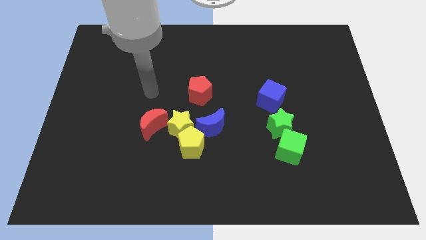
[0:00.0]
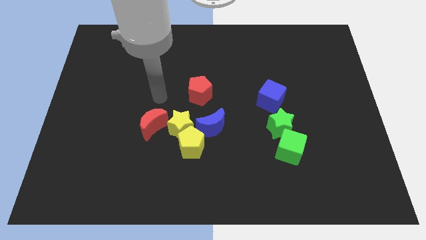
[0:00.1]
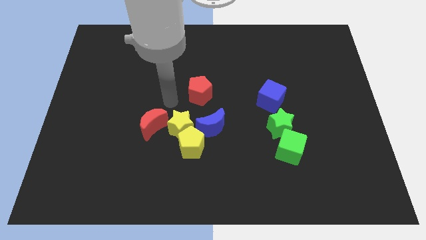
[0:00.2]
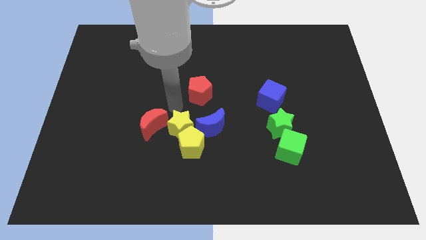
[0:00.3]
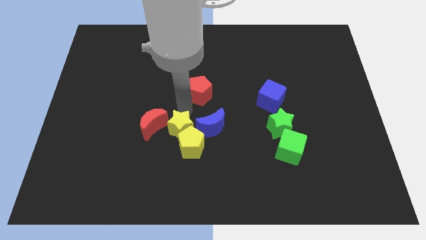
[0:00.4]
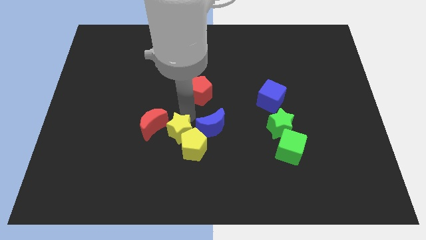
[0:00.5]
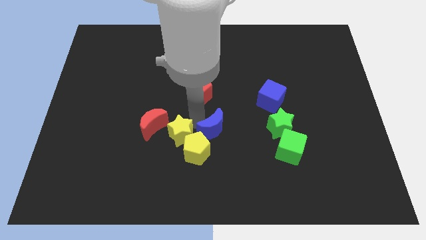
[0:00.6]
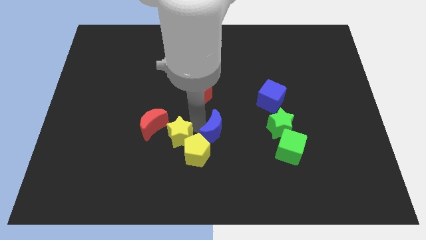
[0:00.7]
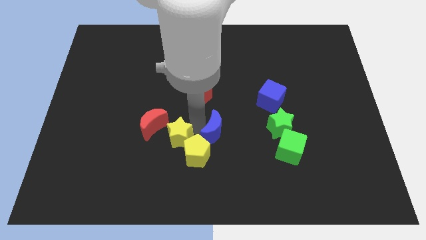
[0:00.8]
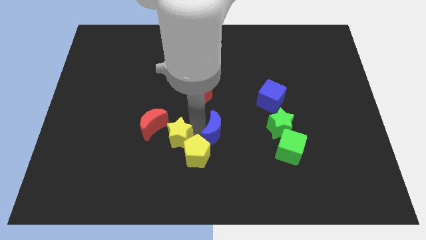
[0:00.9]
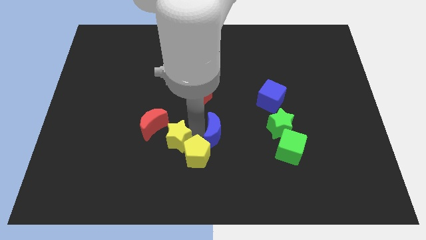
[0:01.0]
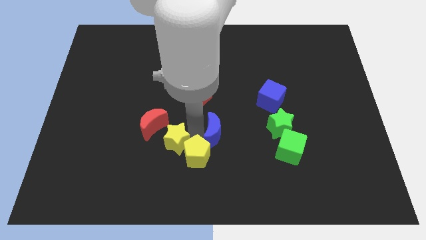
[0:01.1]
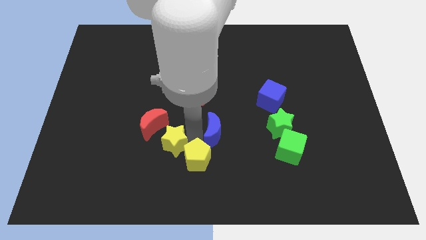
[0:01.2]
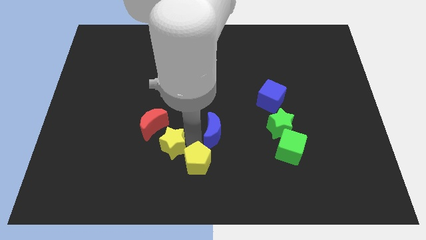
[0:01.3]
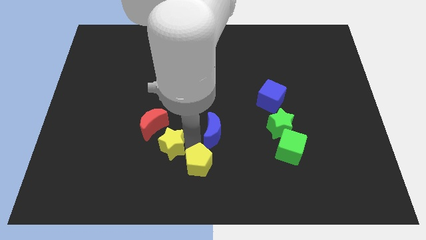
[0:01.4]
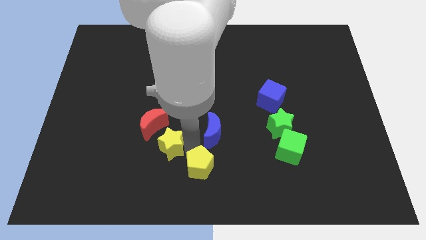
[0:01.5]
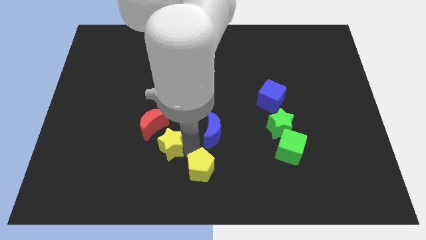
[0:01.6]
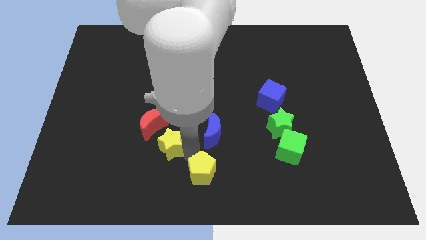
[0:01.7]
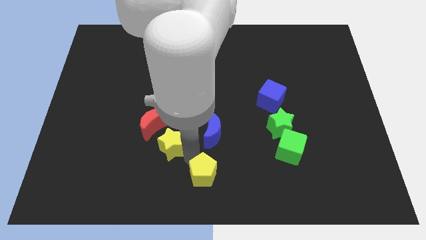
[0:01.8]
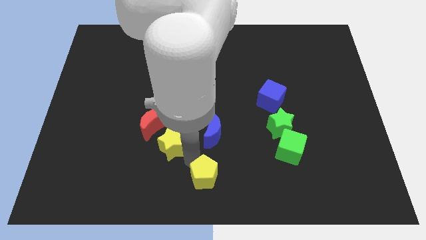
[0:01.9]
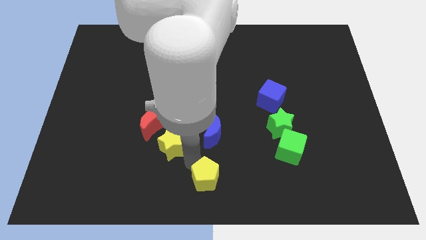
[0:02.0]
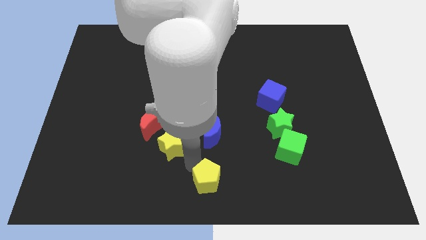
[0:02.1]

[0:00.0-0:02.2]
move the yellow pentagon away from the yellow star and blue moon

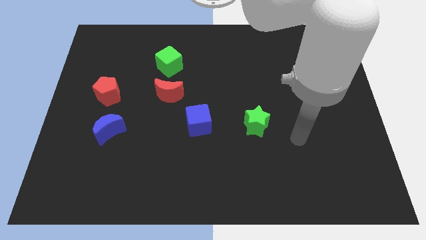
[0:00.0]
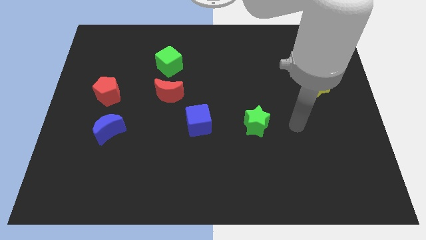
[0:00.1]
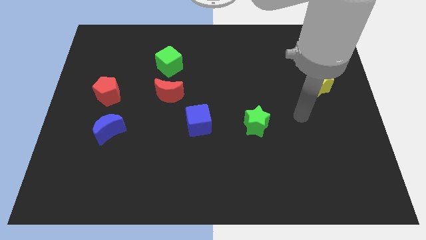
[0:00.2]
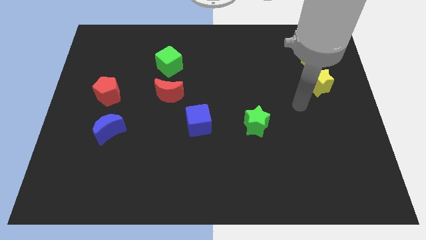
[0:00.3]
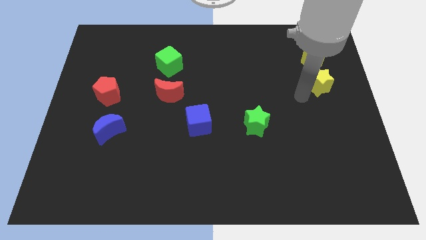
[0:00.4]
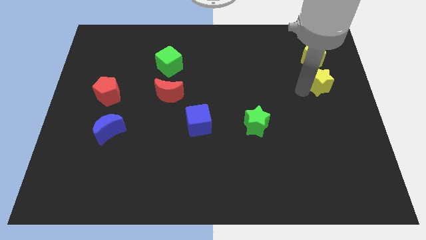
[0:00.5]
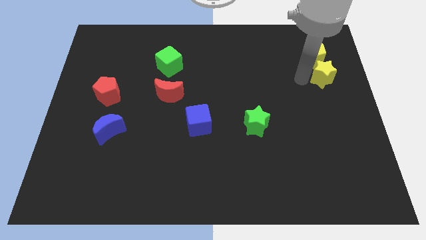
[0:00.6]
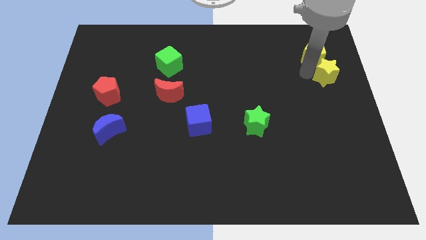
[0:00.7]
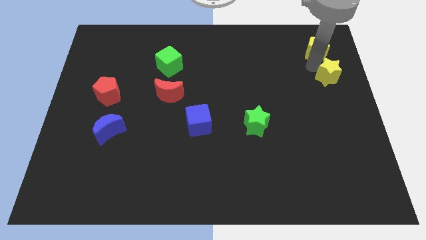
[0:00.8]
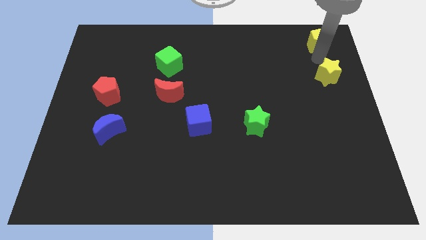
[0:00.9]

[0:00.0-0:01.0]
pull the yellow star apart from the yellow pentagon

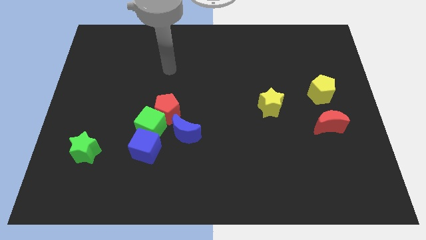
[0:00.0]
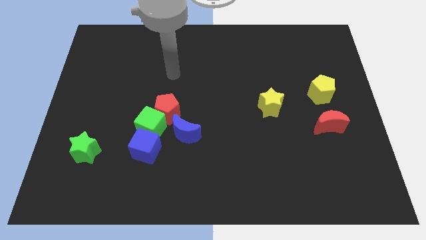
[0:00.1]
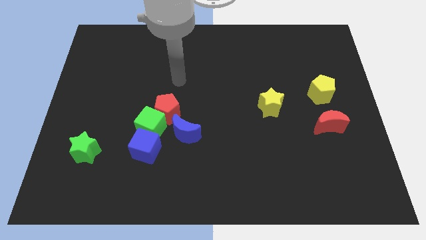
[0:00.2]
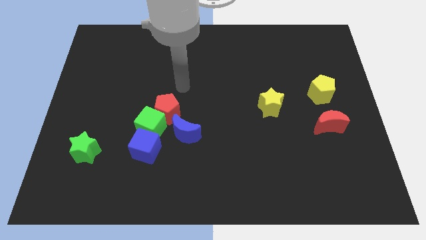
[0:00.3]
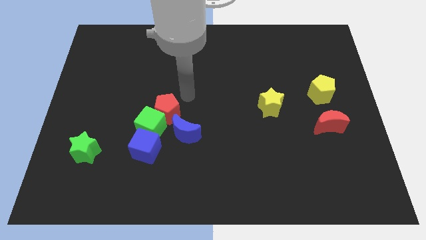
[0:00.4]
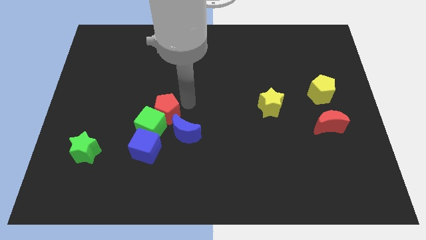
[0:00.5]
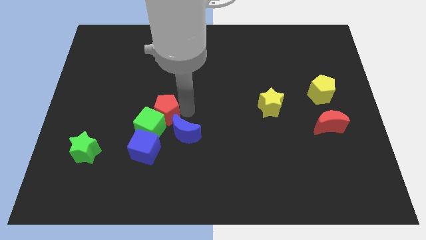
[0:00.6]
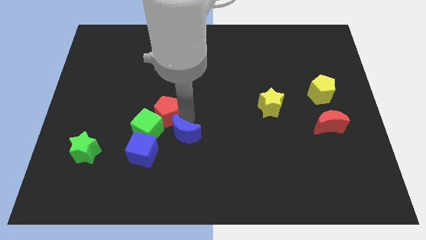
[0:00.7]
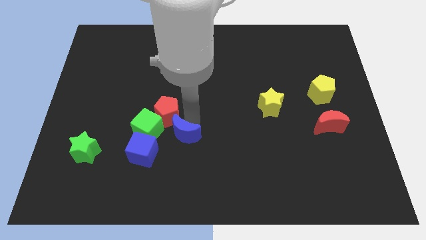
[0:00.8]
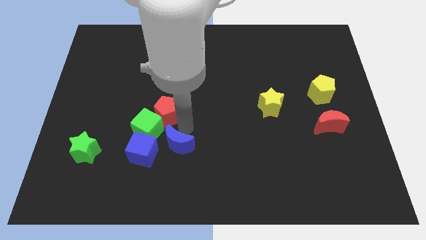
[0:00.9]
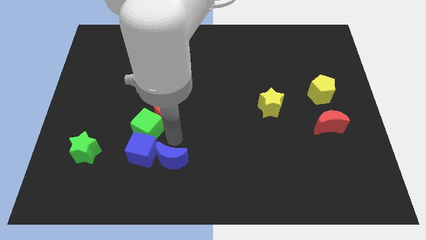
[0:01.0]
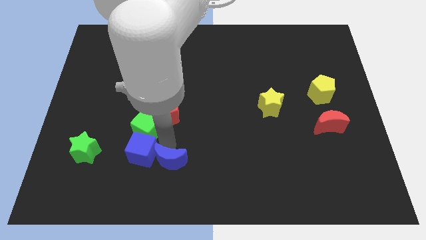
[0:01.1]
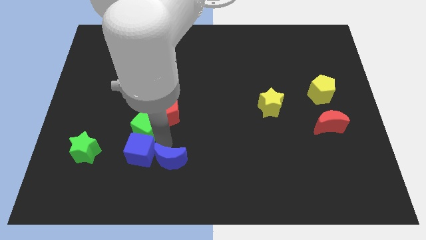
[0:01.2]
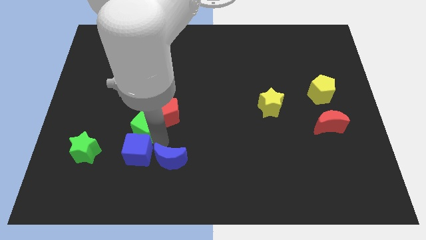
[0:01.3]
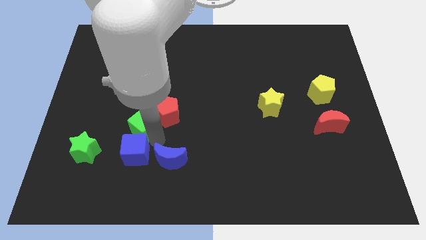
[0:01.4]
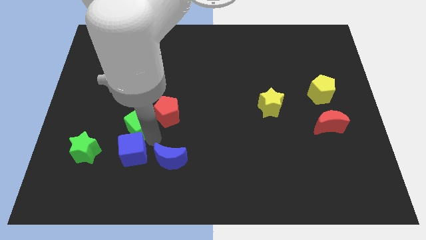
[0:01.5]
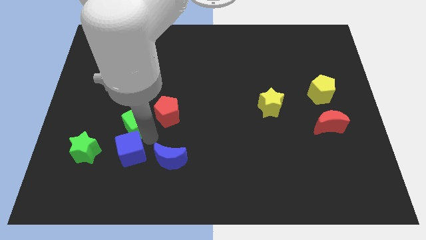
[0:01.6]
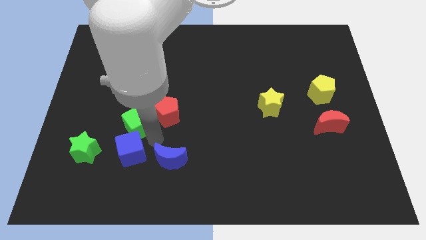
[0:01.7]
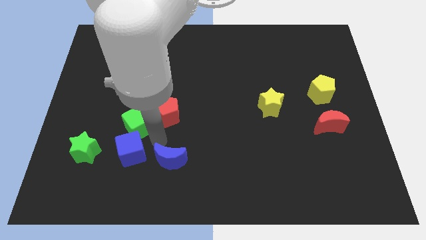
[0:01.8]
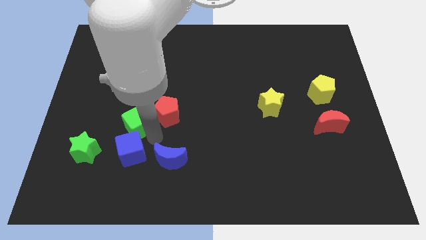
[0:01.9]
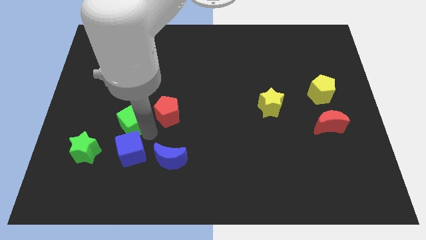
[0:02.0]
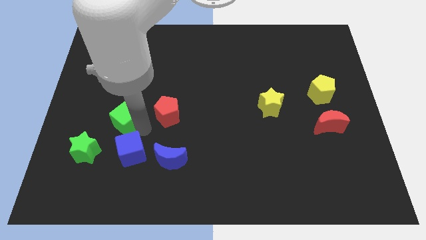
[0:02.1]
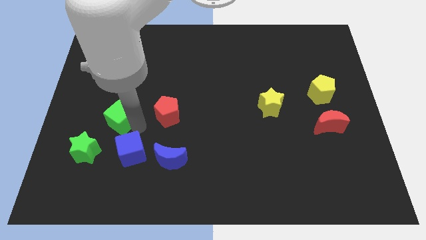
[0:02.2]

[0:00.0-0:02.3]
separate the green cube from the red pentagon, blue cube, and blue moon

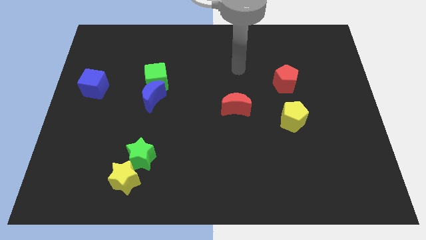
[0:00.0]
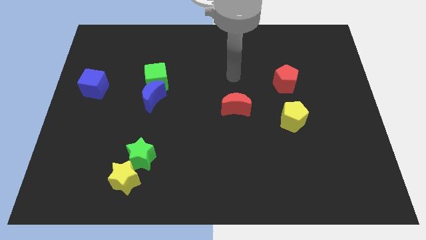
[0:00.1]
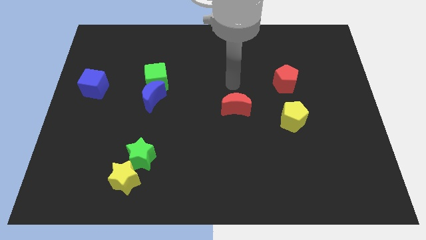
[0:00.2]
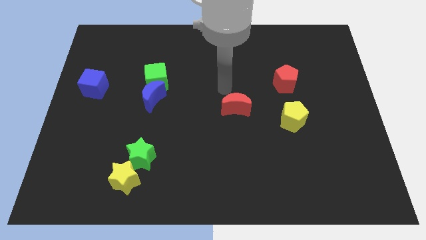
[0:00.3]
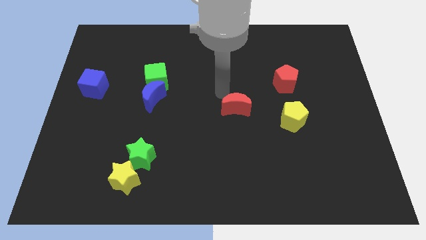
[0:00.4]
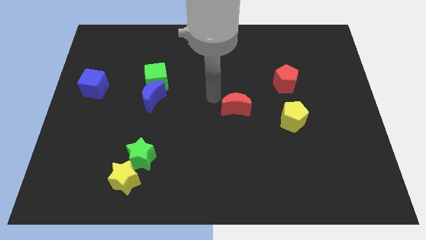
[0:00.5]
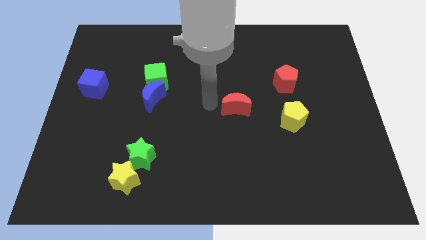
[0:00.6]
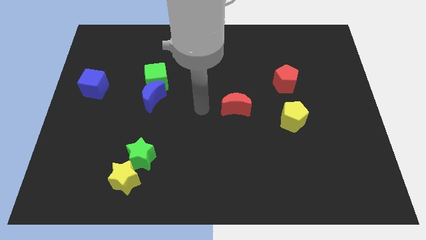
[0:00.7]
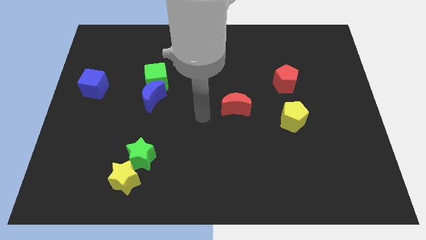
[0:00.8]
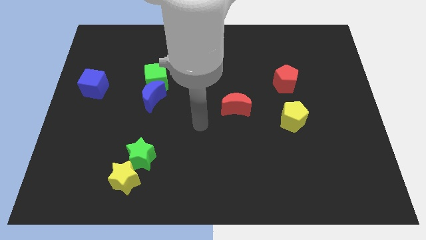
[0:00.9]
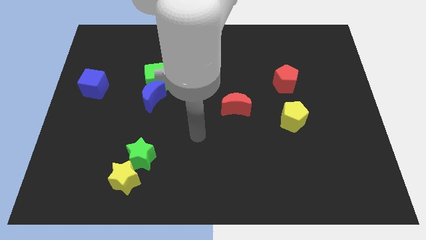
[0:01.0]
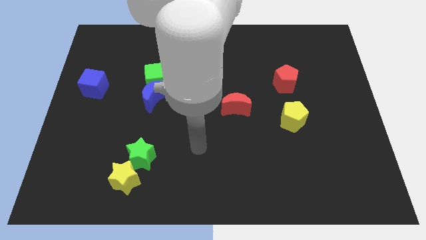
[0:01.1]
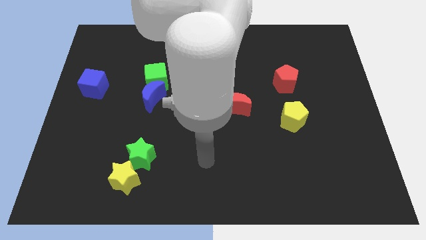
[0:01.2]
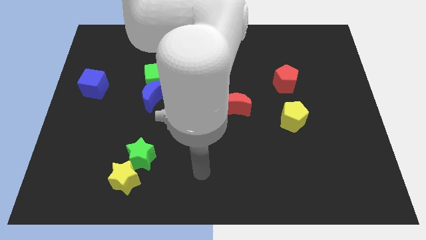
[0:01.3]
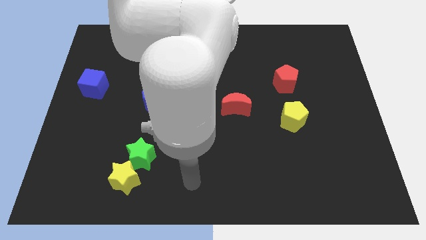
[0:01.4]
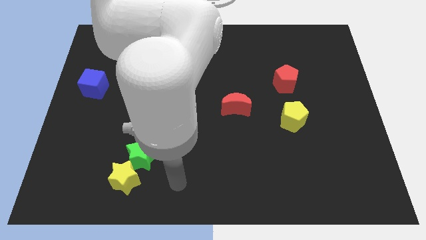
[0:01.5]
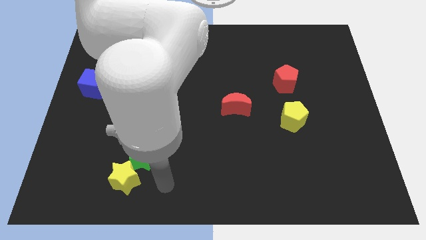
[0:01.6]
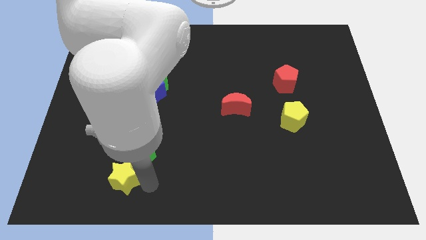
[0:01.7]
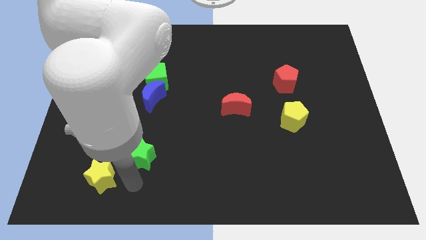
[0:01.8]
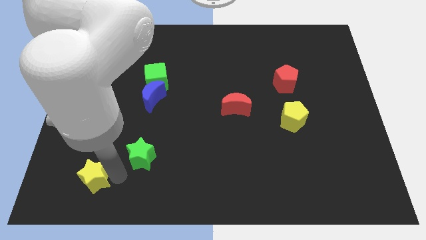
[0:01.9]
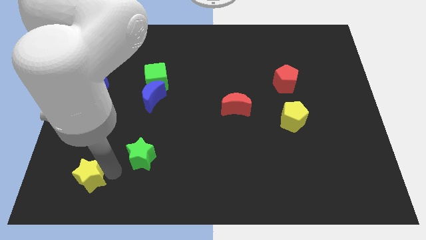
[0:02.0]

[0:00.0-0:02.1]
separate the green star from the yellow star

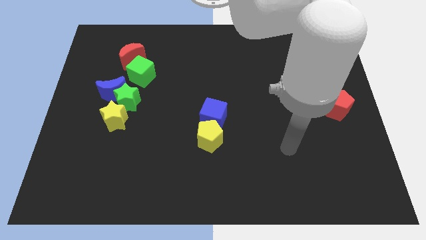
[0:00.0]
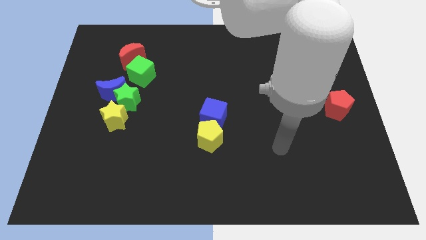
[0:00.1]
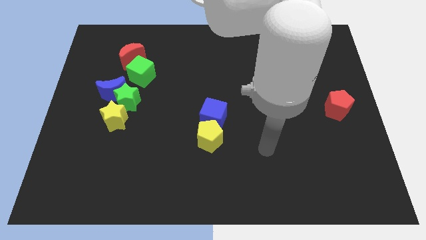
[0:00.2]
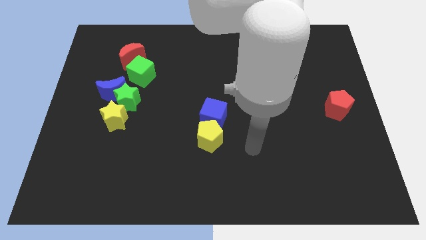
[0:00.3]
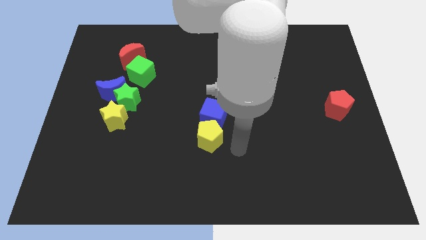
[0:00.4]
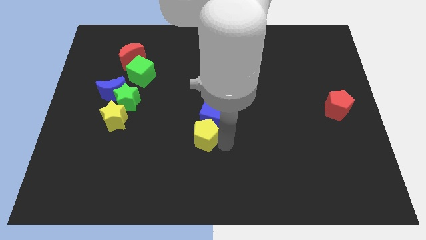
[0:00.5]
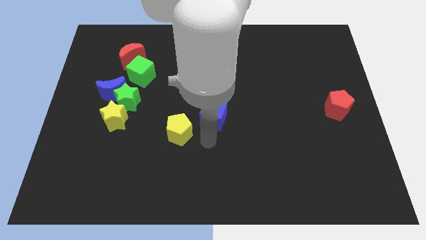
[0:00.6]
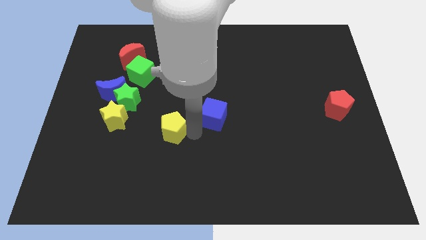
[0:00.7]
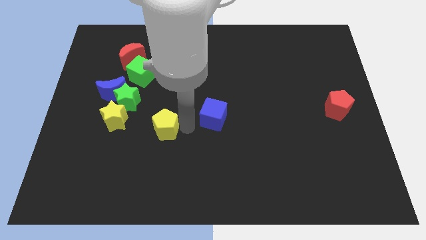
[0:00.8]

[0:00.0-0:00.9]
move the blue cube away from the yellow pentagon

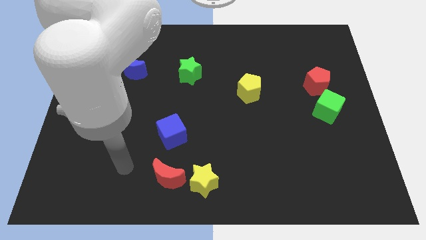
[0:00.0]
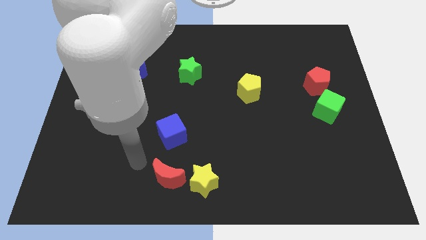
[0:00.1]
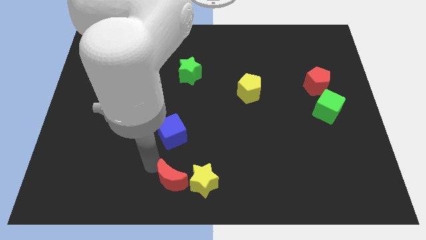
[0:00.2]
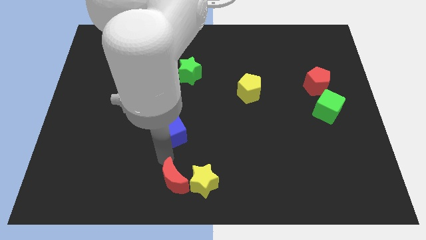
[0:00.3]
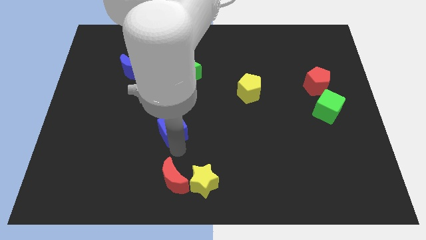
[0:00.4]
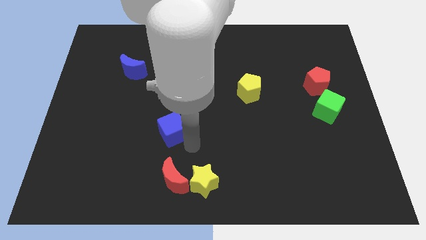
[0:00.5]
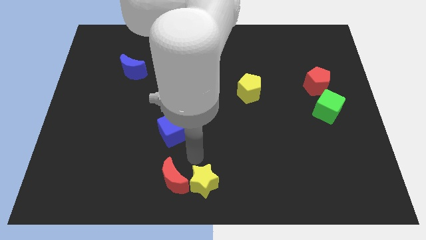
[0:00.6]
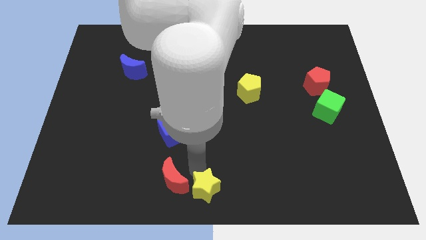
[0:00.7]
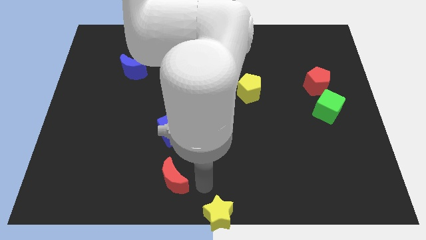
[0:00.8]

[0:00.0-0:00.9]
move the red moon away from the yellow star
